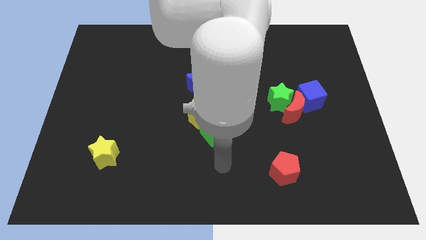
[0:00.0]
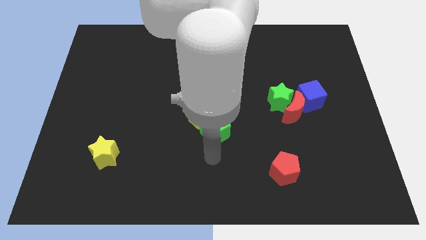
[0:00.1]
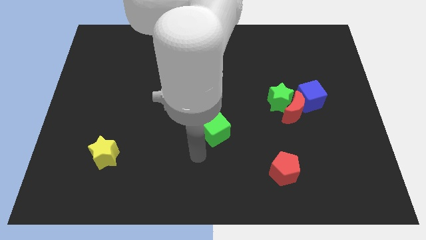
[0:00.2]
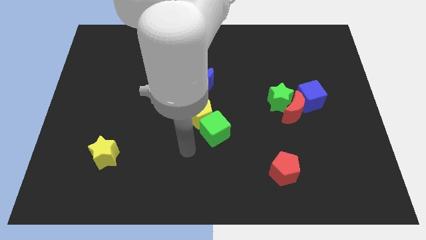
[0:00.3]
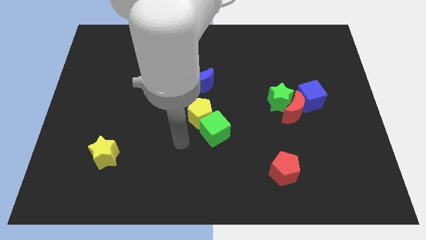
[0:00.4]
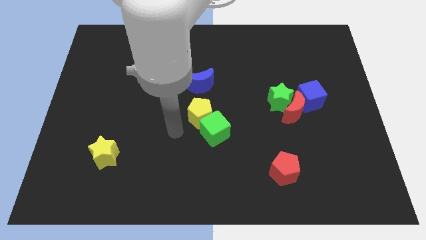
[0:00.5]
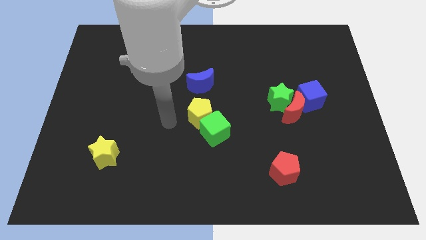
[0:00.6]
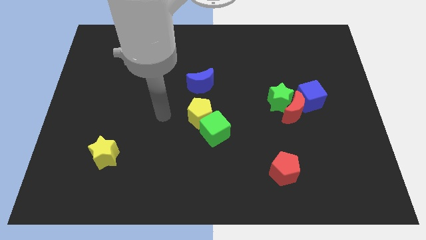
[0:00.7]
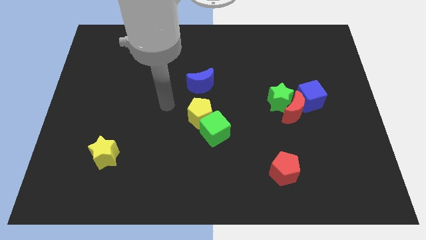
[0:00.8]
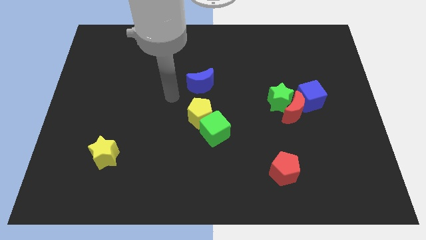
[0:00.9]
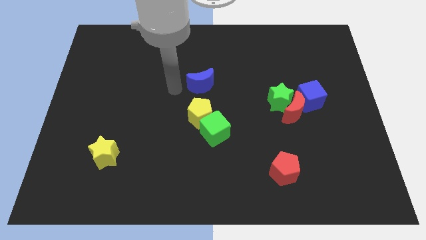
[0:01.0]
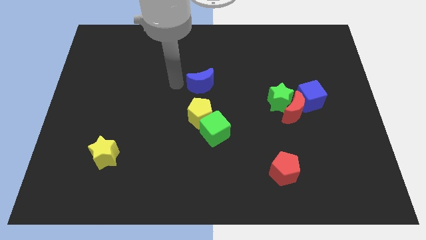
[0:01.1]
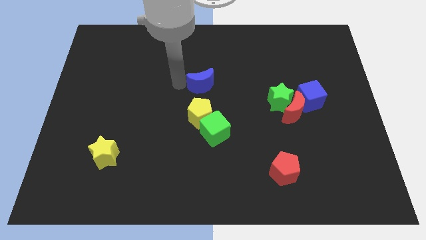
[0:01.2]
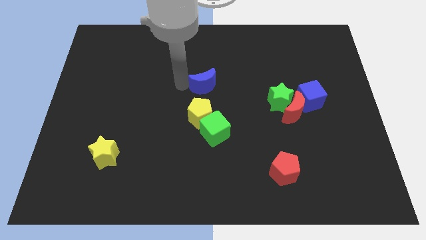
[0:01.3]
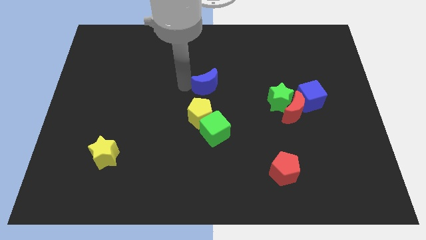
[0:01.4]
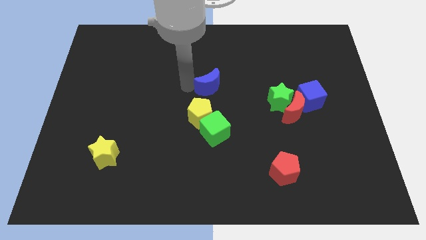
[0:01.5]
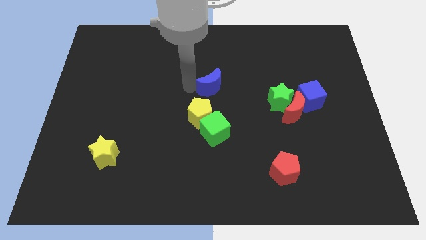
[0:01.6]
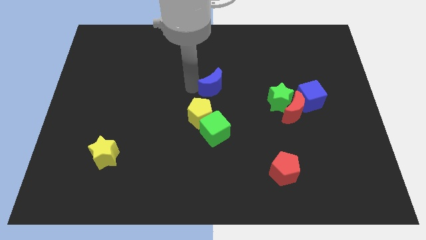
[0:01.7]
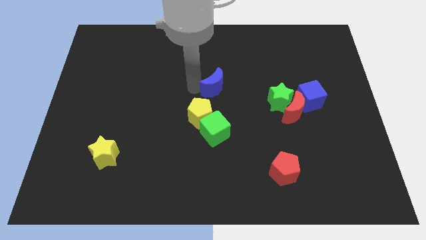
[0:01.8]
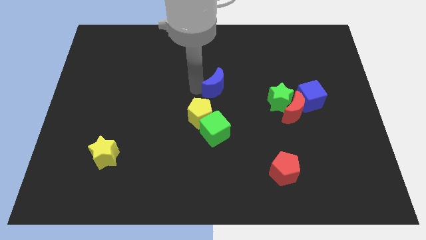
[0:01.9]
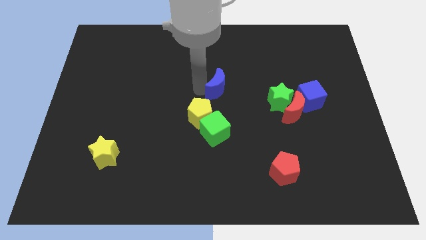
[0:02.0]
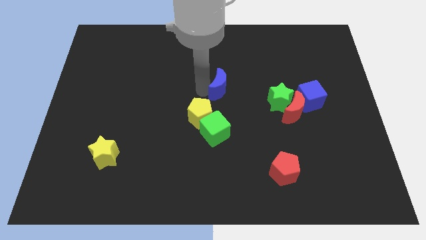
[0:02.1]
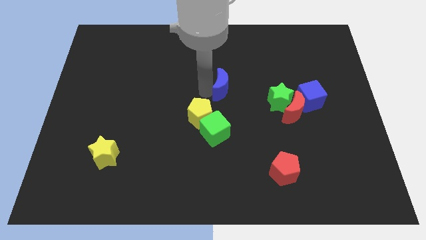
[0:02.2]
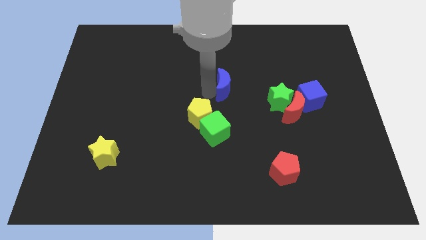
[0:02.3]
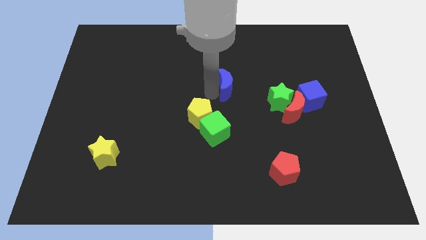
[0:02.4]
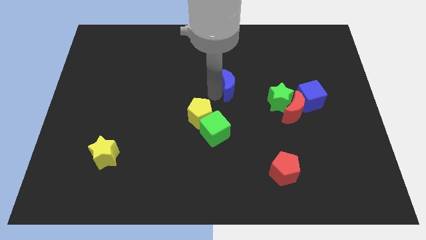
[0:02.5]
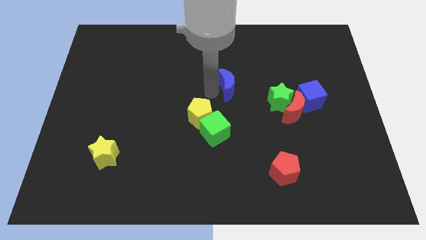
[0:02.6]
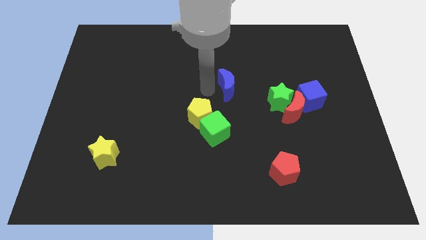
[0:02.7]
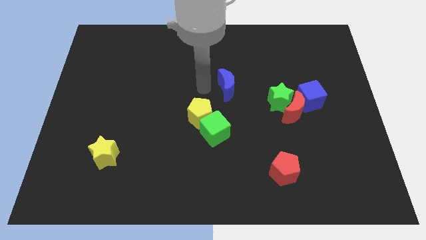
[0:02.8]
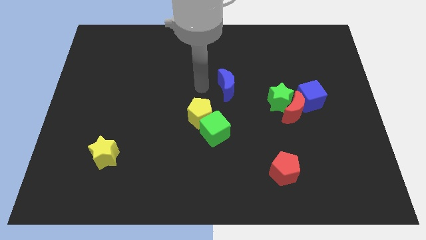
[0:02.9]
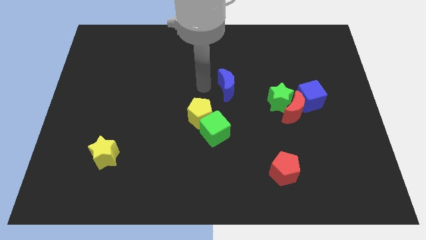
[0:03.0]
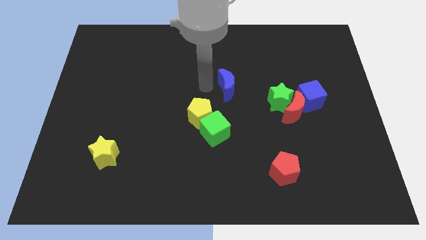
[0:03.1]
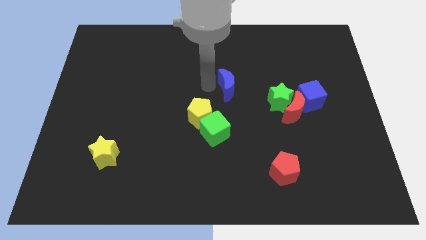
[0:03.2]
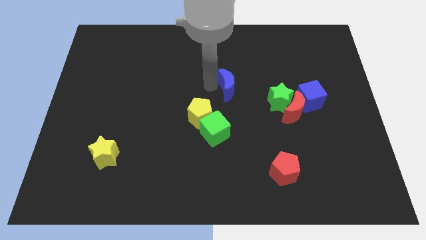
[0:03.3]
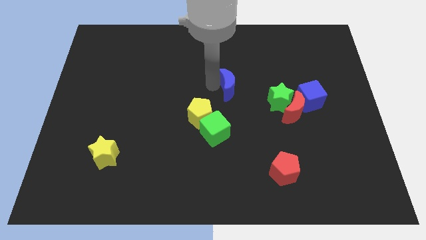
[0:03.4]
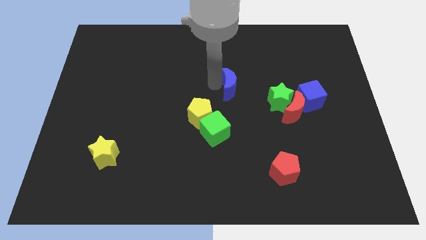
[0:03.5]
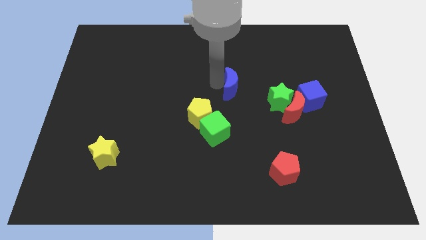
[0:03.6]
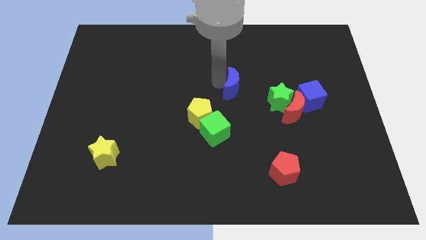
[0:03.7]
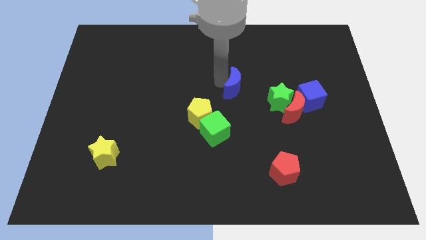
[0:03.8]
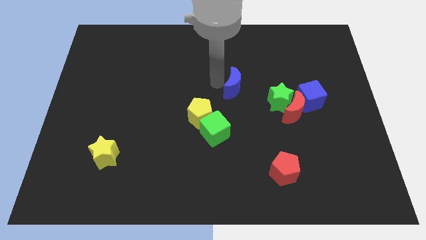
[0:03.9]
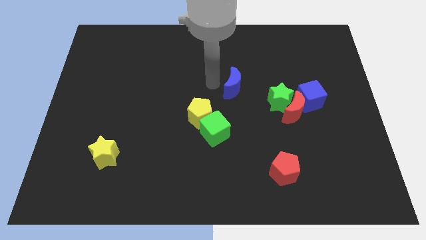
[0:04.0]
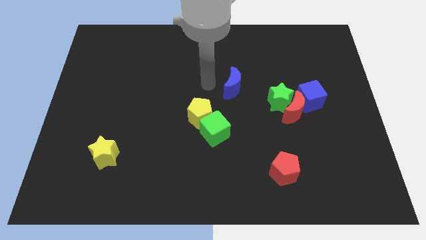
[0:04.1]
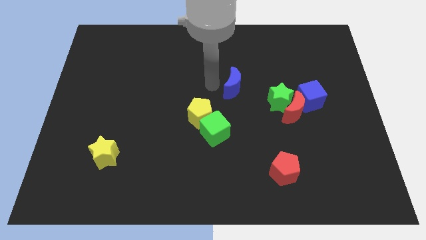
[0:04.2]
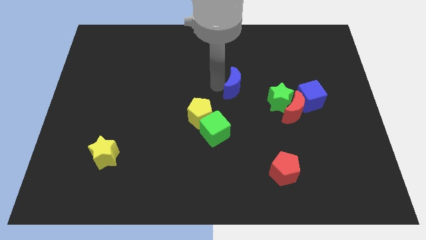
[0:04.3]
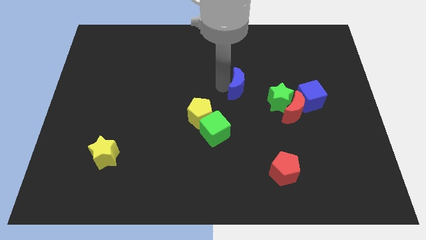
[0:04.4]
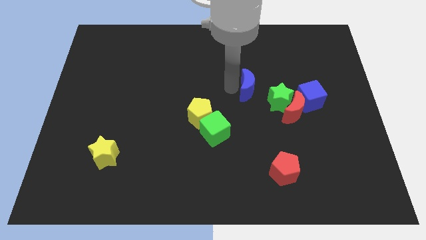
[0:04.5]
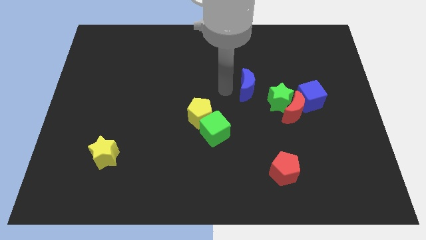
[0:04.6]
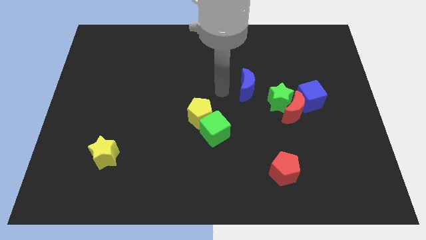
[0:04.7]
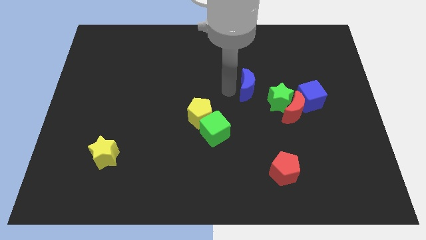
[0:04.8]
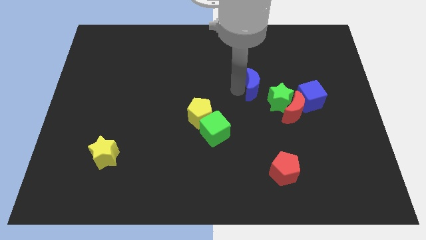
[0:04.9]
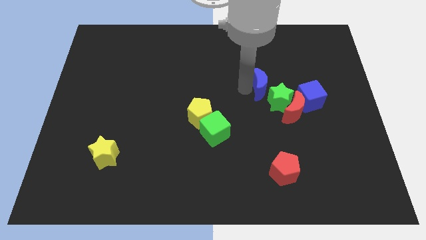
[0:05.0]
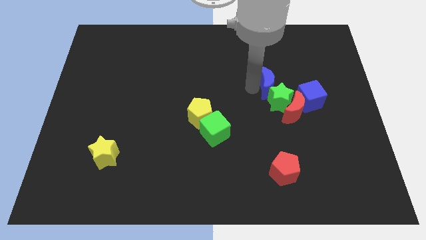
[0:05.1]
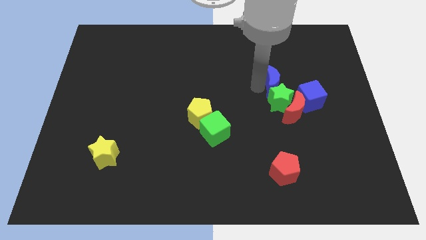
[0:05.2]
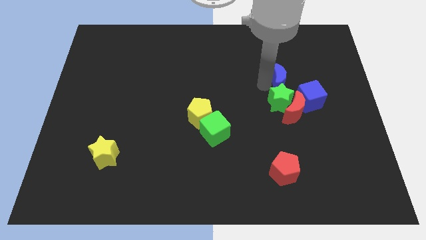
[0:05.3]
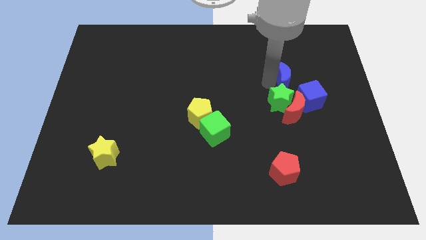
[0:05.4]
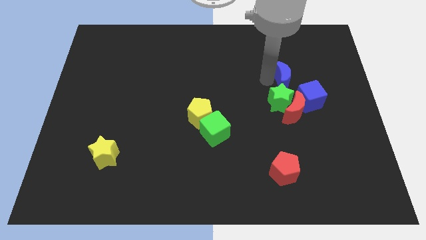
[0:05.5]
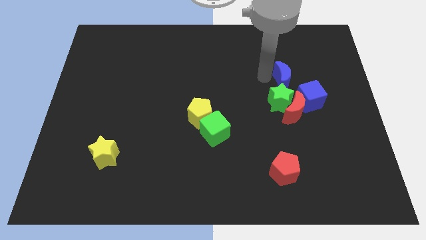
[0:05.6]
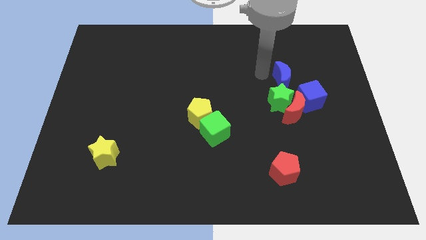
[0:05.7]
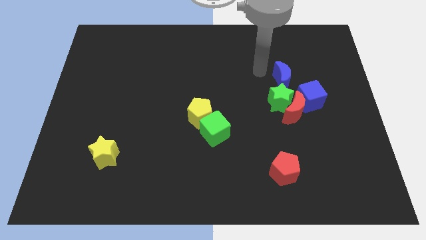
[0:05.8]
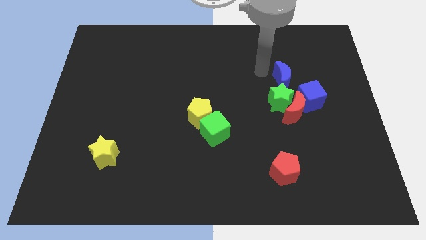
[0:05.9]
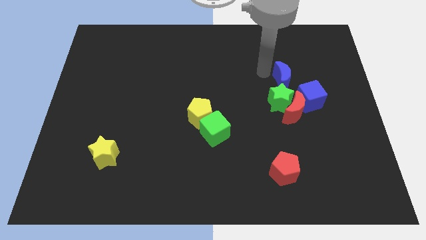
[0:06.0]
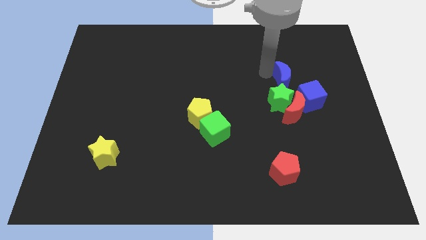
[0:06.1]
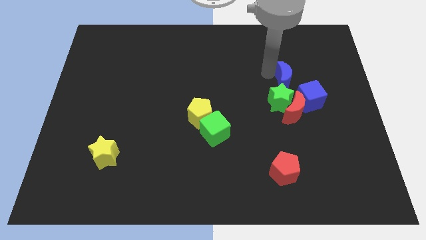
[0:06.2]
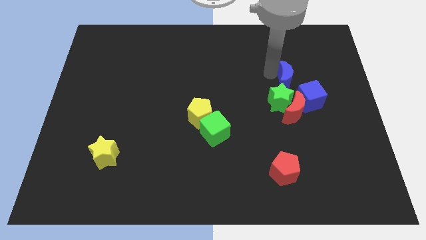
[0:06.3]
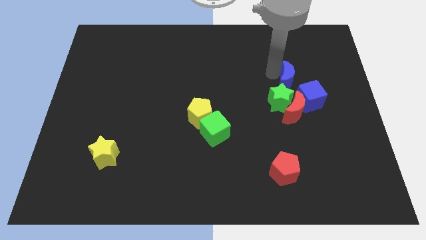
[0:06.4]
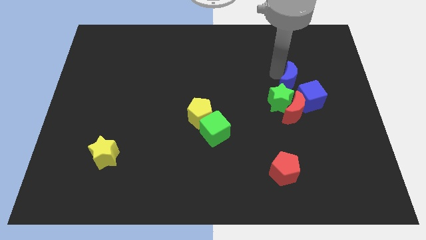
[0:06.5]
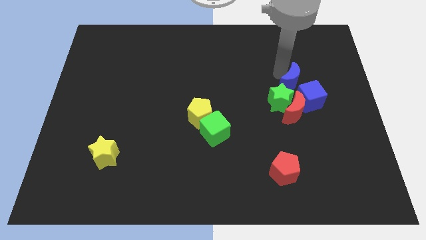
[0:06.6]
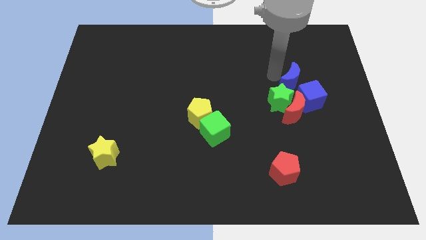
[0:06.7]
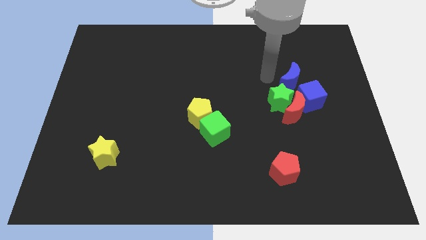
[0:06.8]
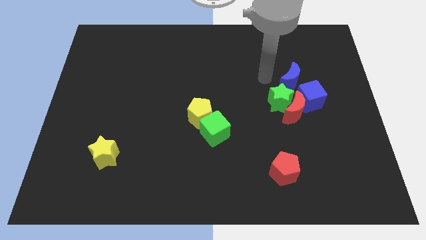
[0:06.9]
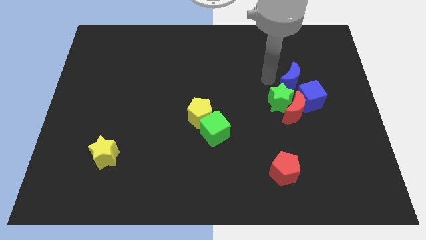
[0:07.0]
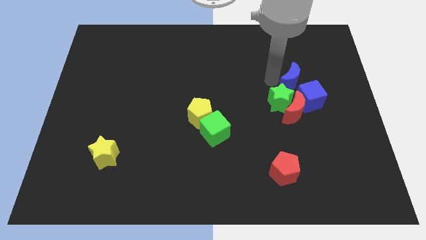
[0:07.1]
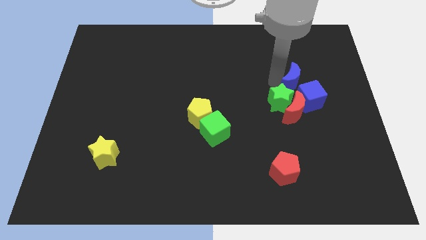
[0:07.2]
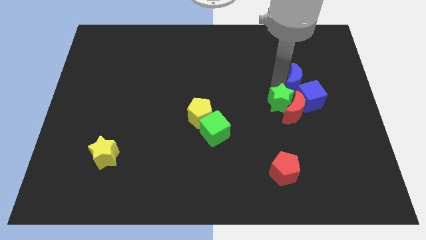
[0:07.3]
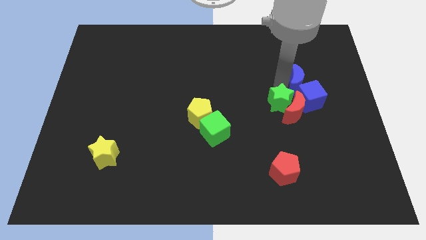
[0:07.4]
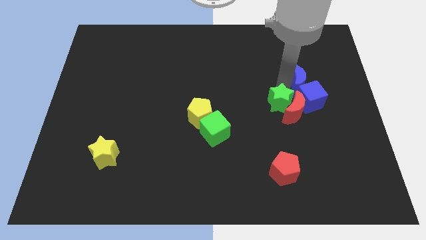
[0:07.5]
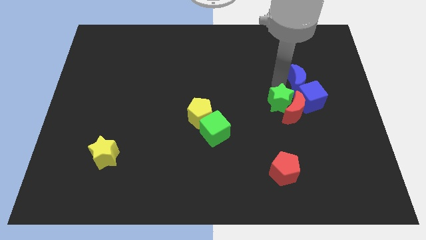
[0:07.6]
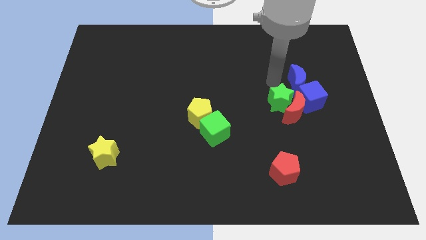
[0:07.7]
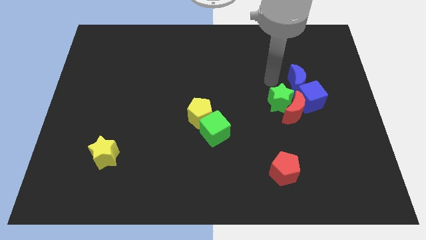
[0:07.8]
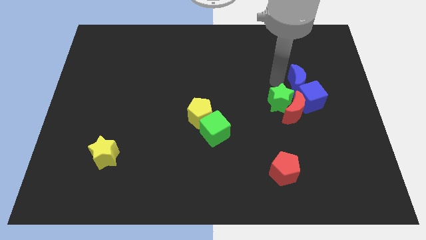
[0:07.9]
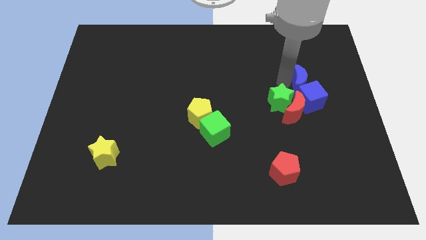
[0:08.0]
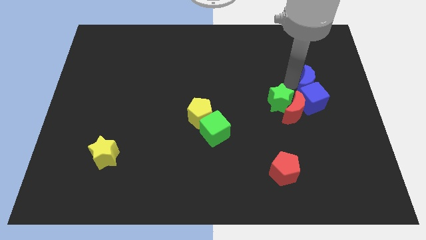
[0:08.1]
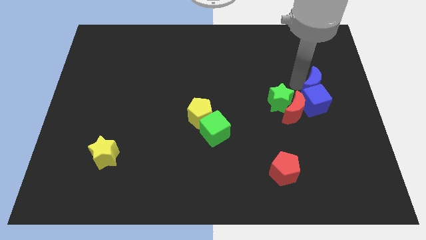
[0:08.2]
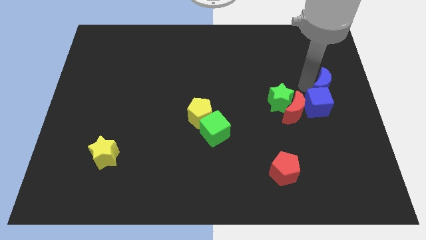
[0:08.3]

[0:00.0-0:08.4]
slide the blue moon to the right side
